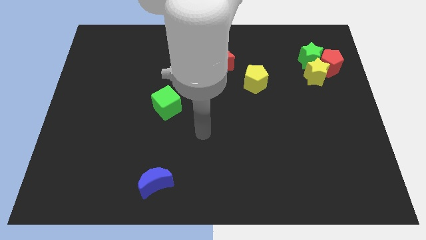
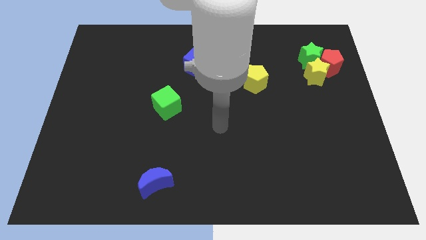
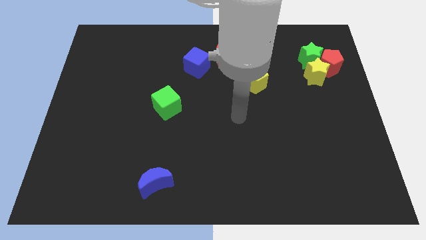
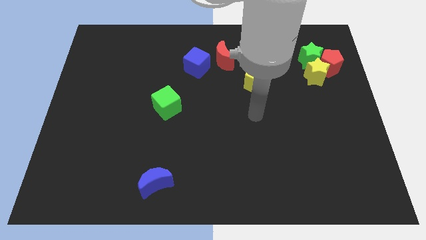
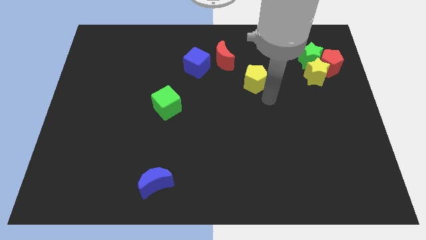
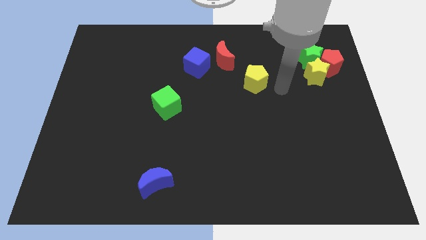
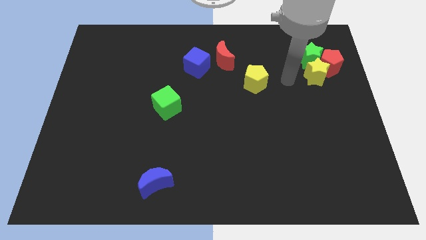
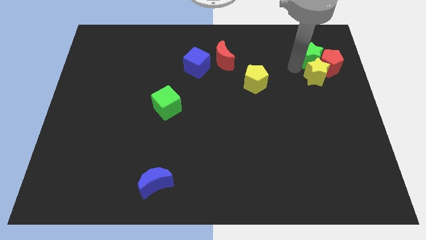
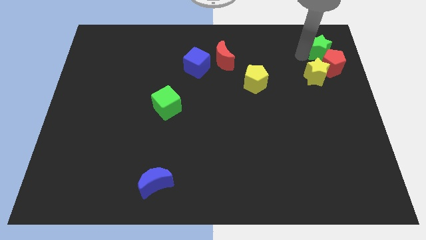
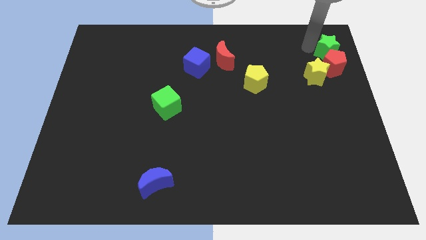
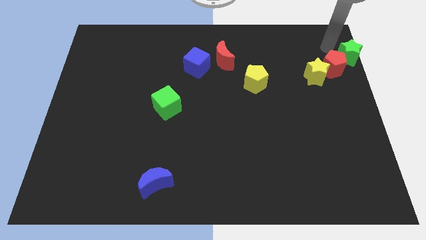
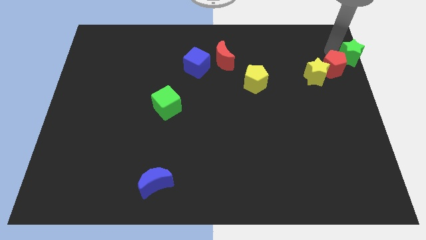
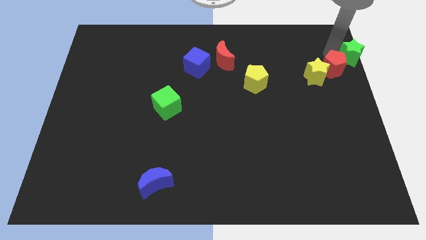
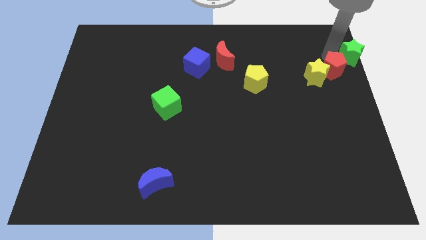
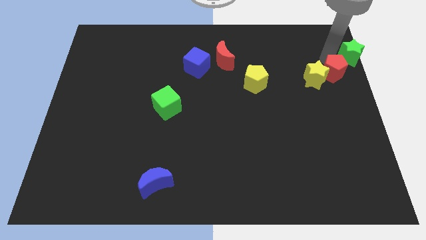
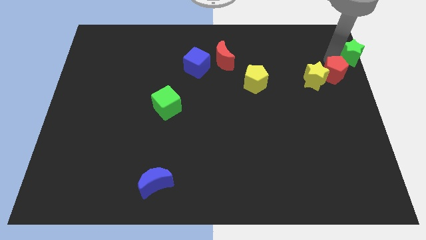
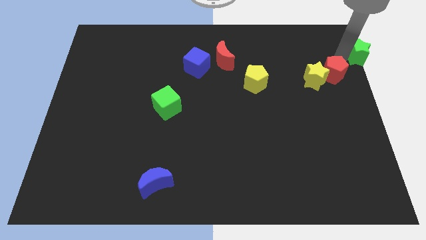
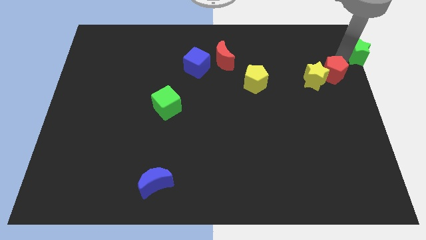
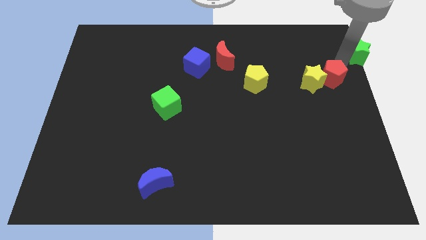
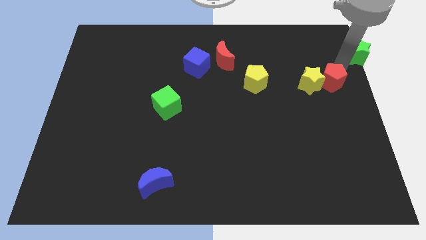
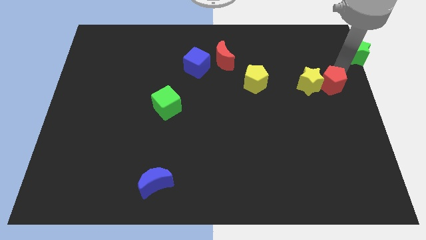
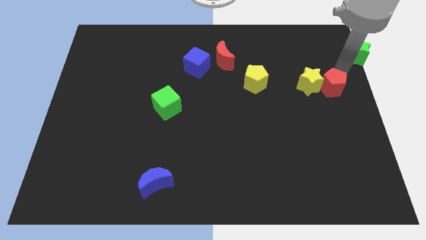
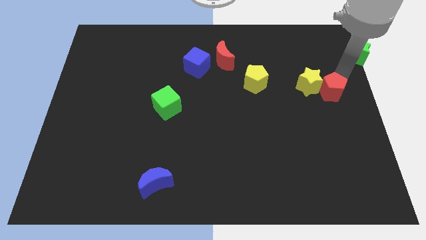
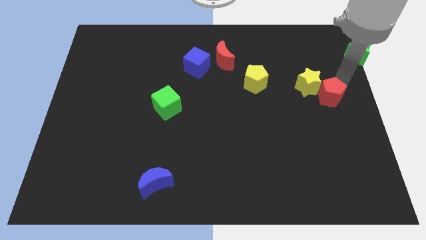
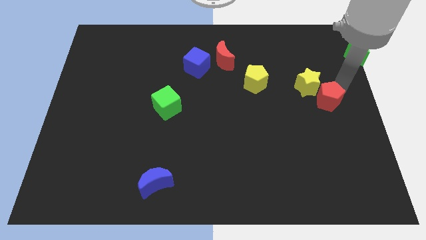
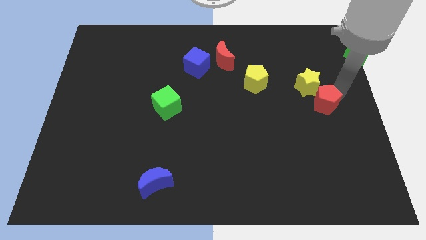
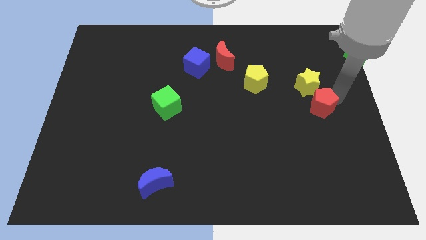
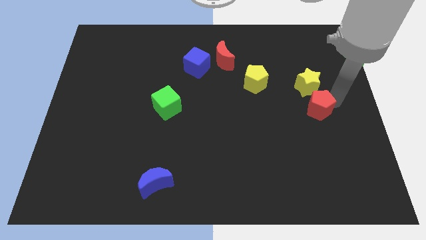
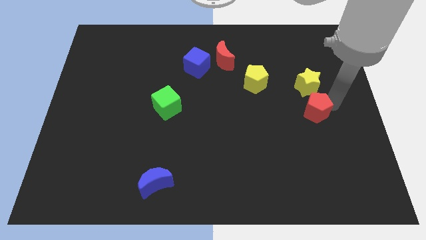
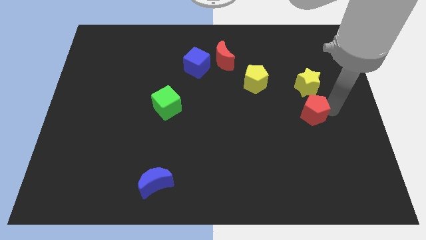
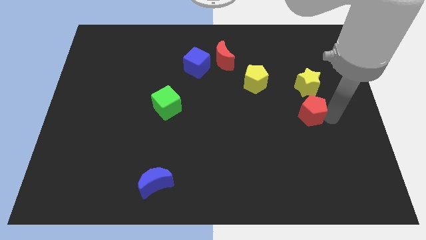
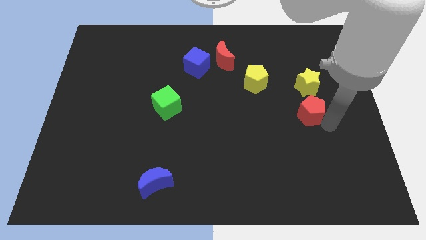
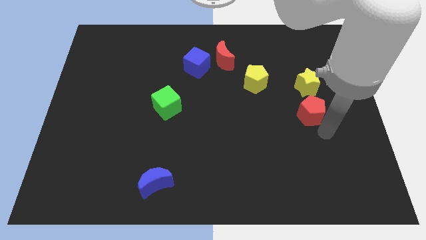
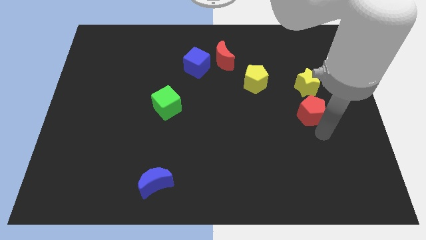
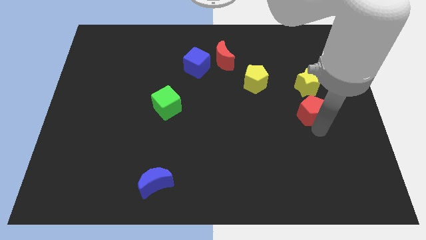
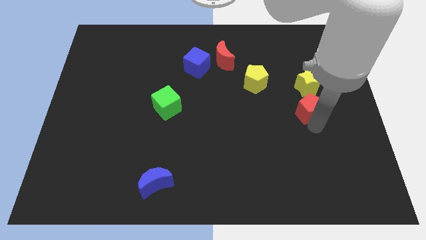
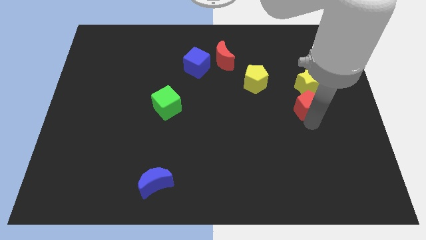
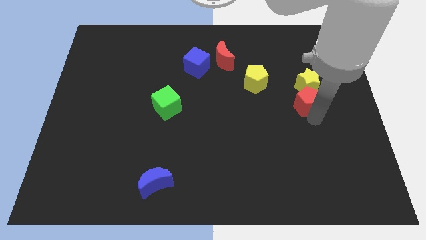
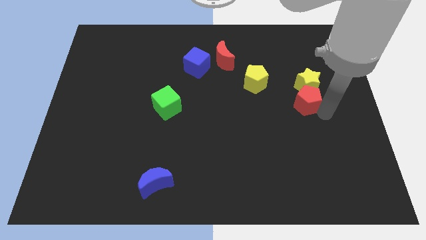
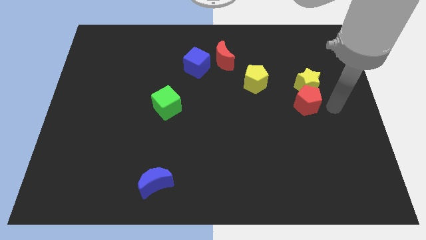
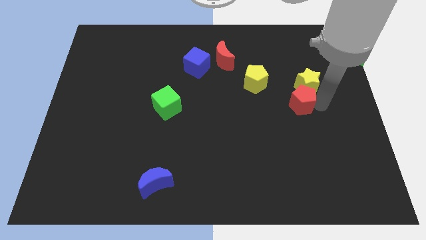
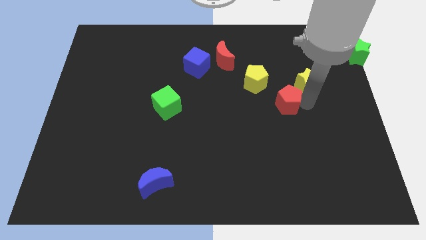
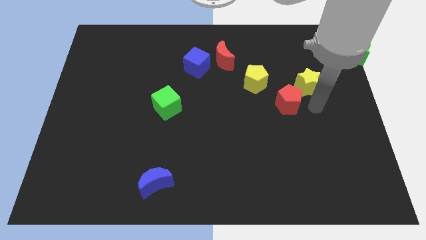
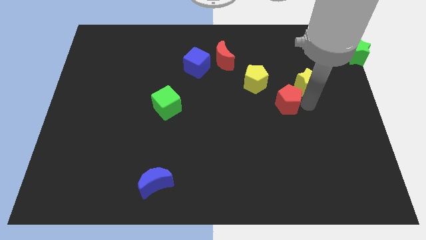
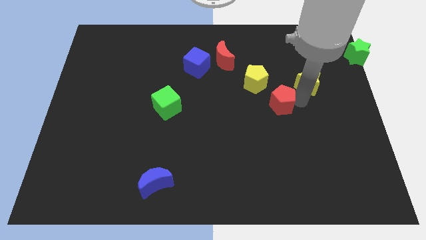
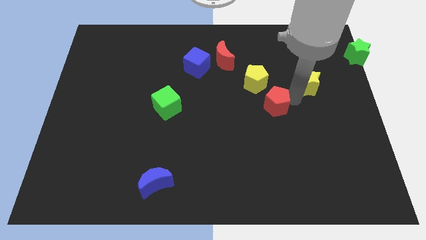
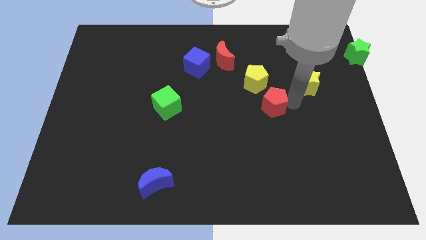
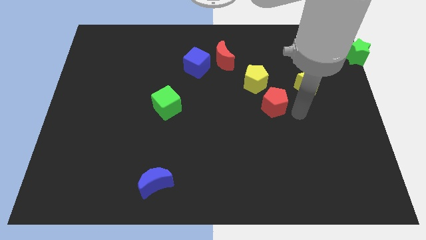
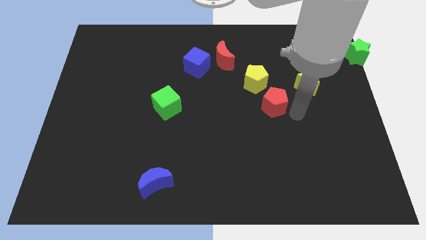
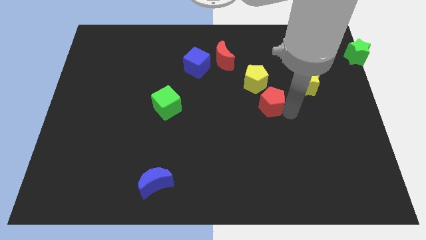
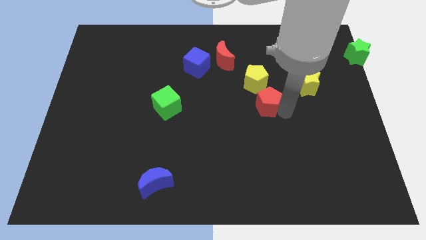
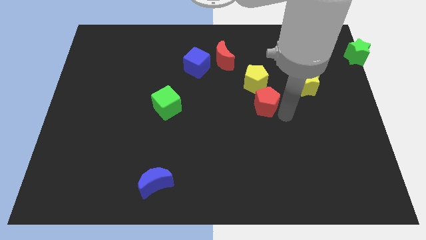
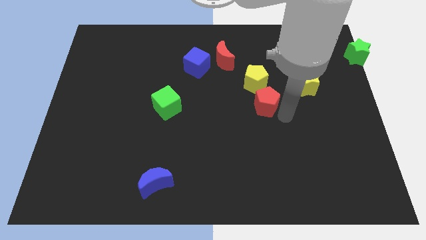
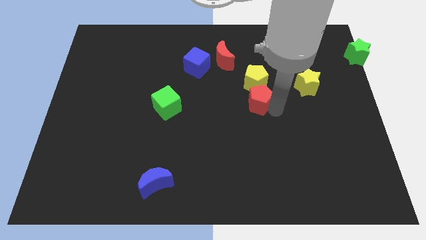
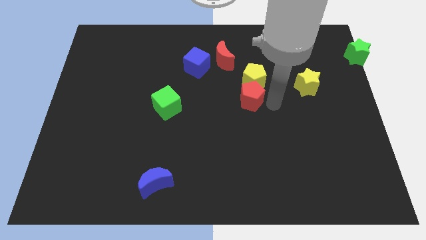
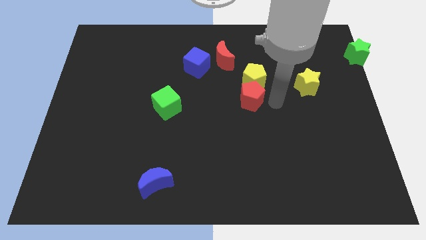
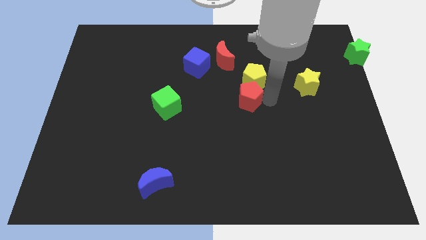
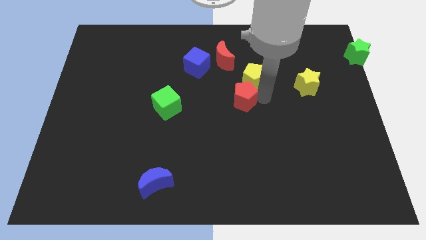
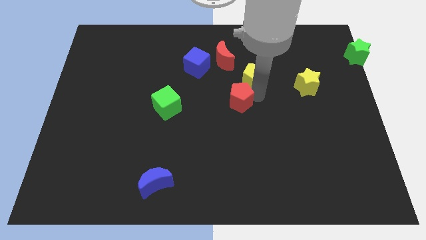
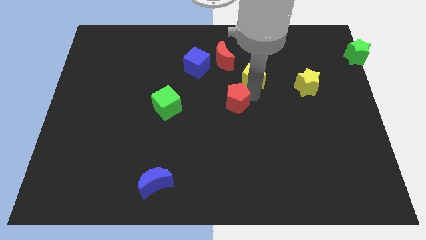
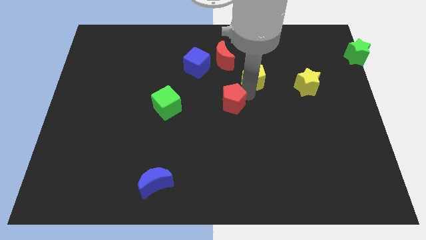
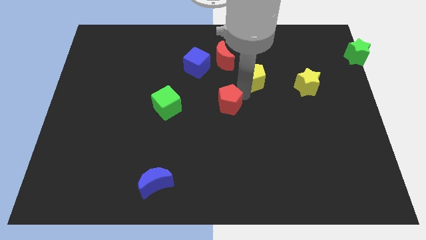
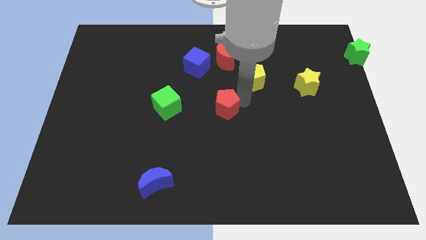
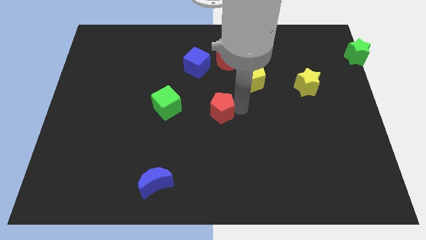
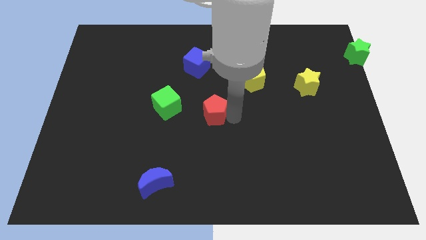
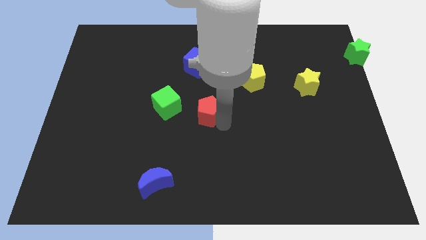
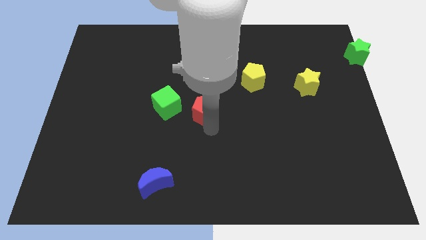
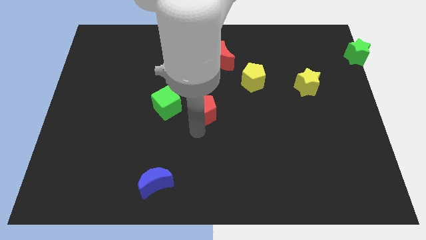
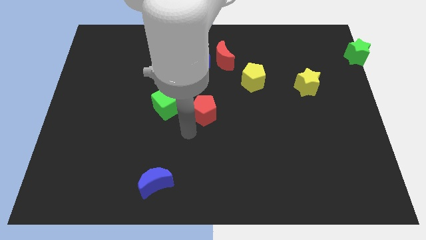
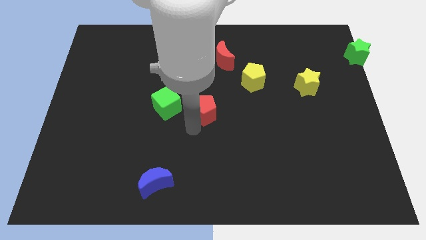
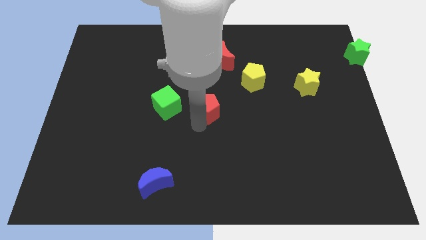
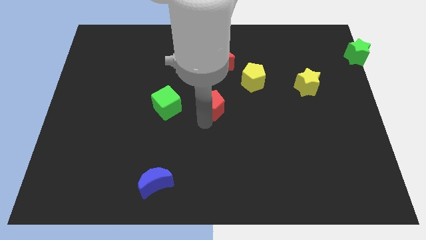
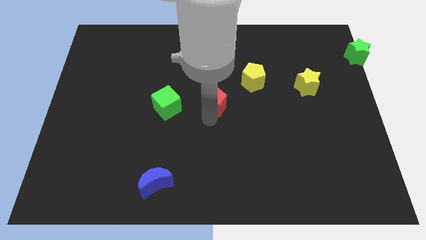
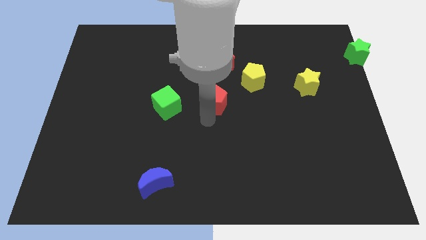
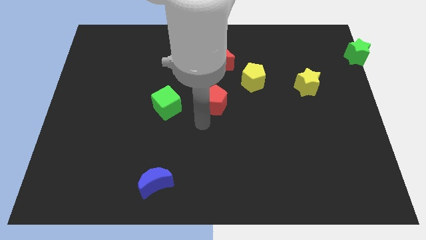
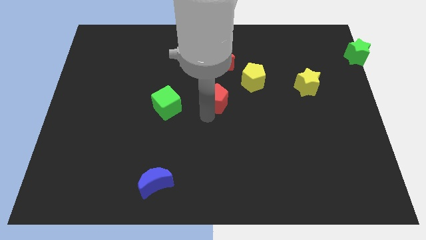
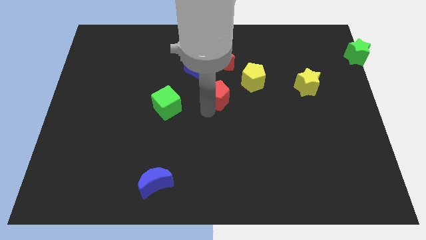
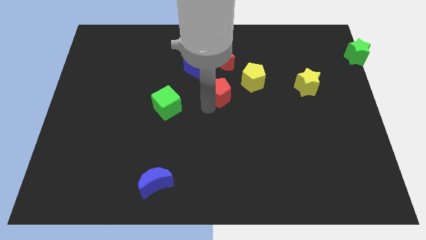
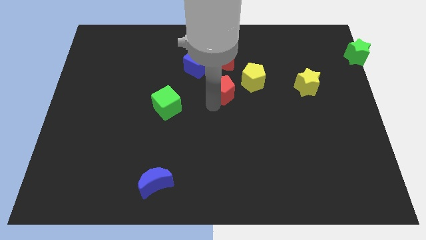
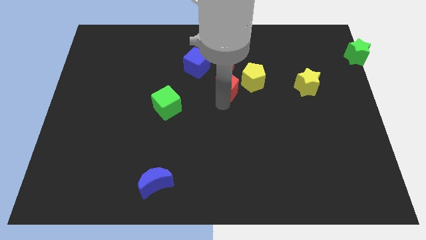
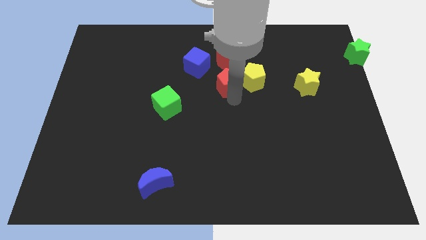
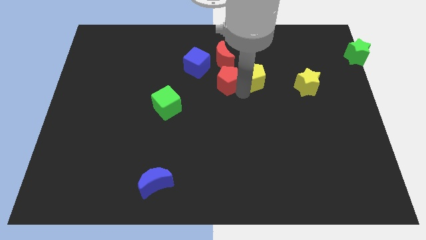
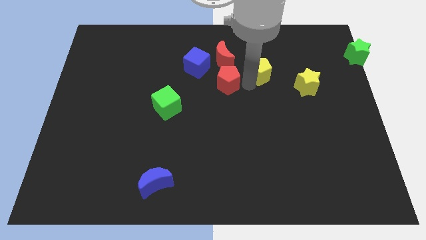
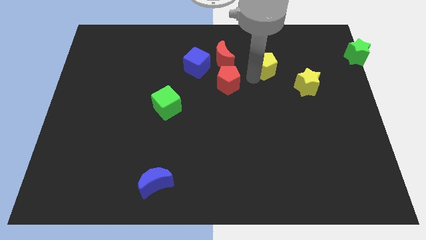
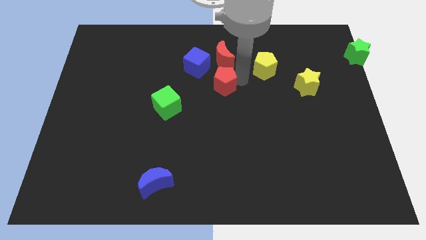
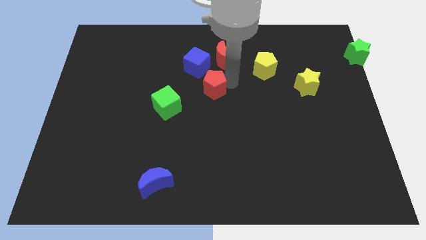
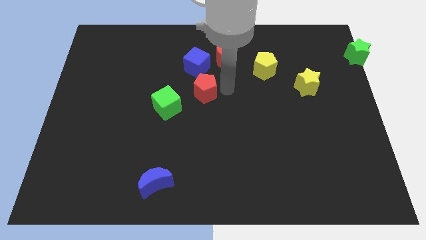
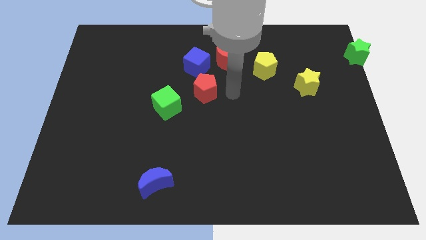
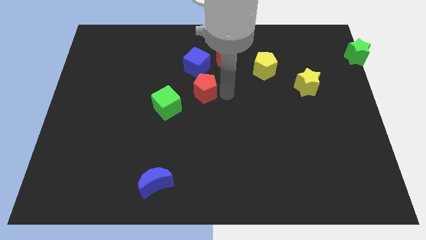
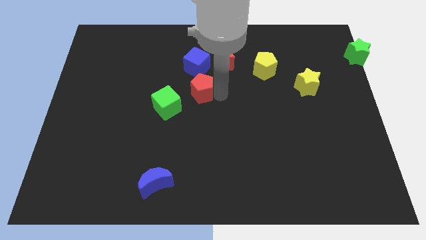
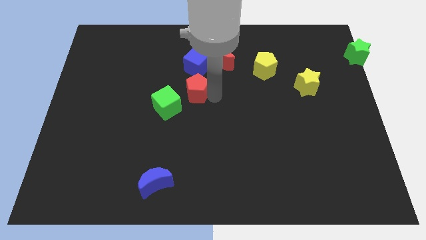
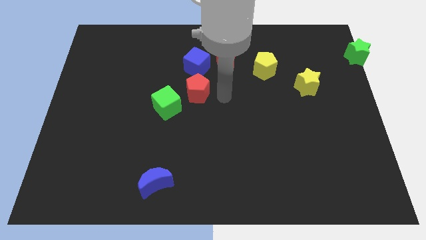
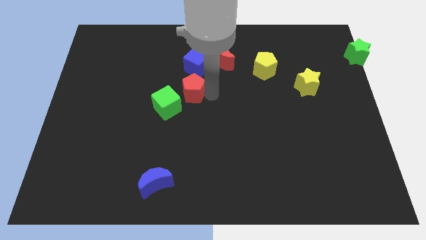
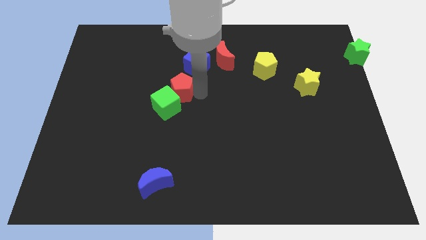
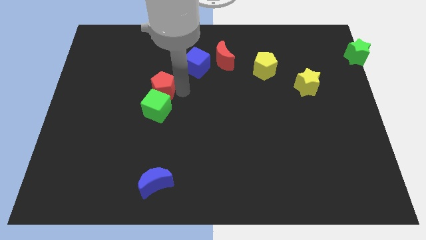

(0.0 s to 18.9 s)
put the red pentagon to the top left side of the green cube
